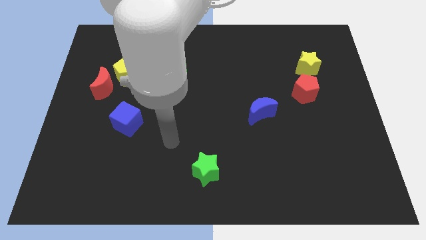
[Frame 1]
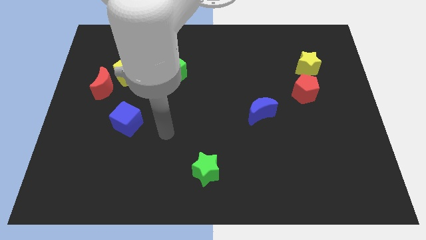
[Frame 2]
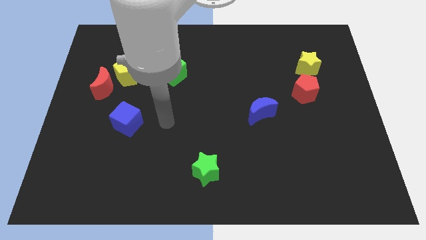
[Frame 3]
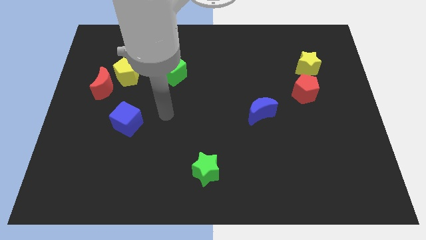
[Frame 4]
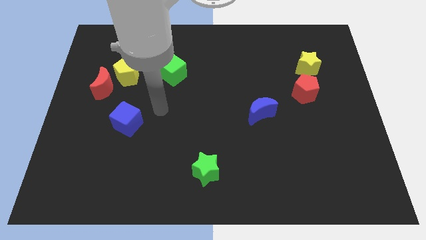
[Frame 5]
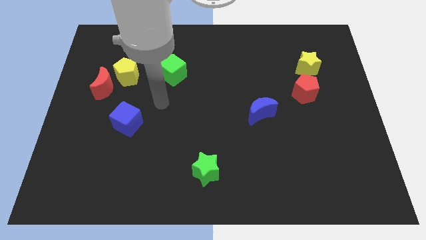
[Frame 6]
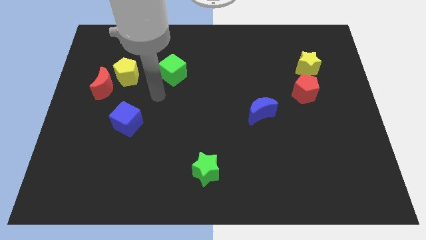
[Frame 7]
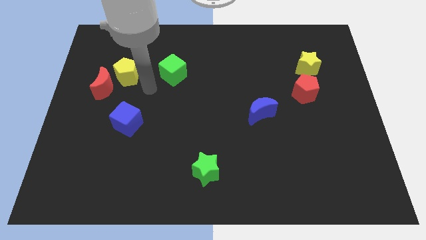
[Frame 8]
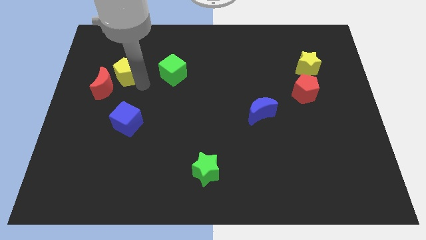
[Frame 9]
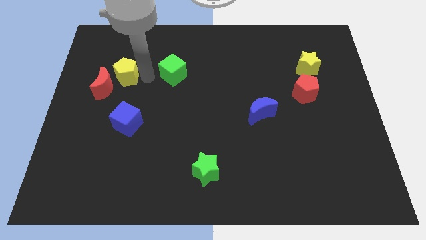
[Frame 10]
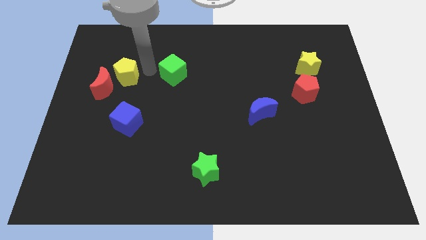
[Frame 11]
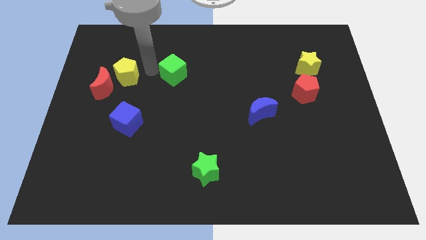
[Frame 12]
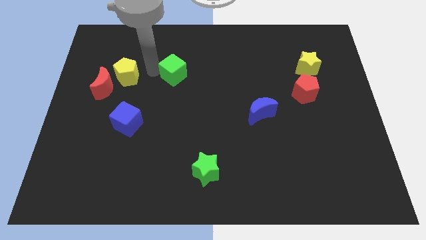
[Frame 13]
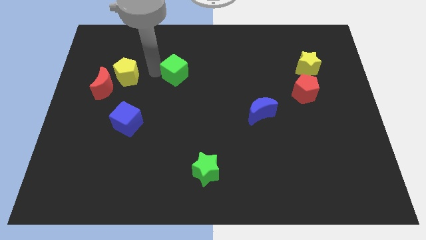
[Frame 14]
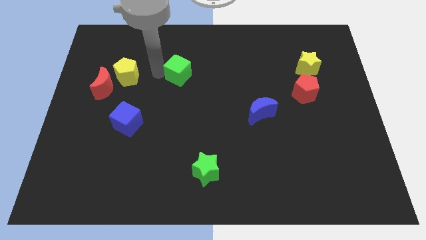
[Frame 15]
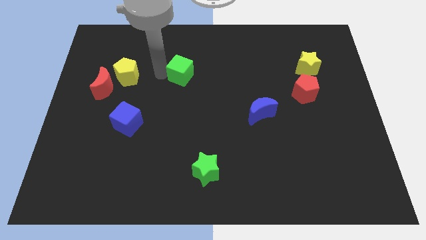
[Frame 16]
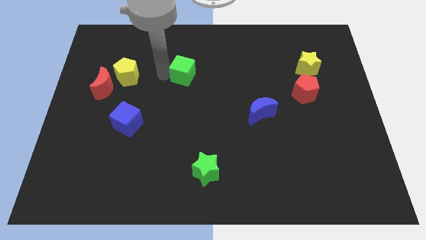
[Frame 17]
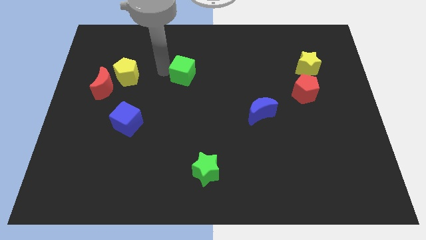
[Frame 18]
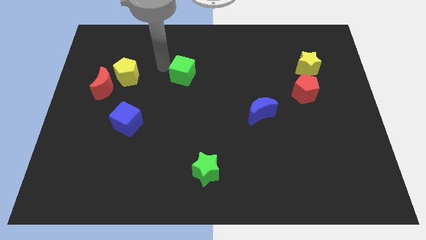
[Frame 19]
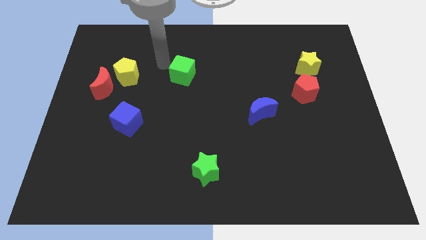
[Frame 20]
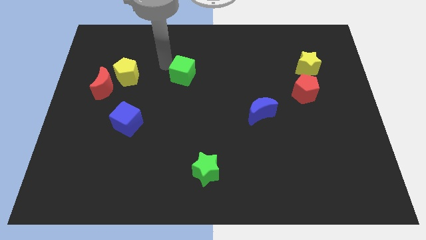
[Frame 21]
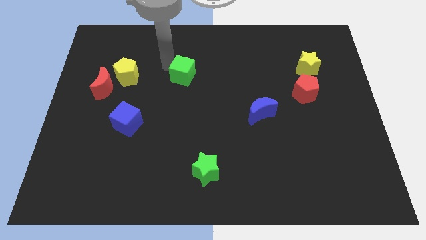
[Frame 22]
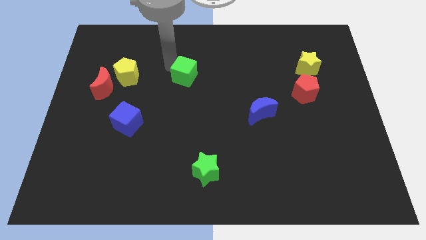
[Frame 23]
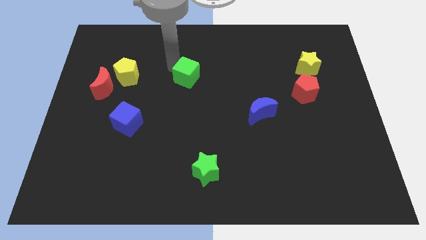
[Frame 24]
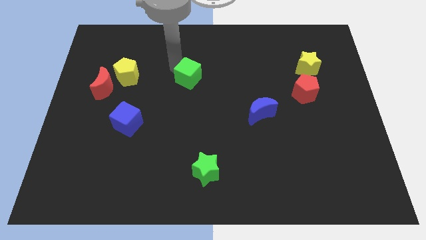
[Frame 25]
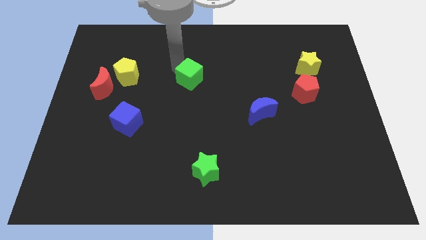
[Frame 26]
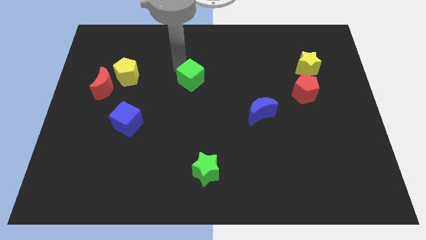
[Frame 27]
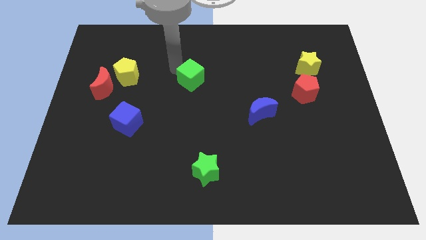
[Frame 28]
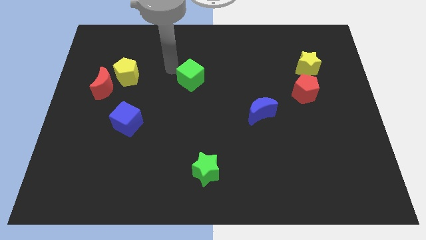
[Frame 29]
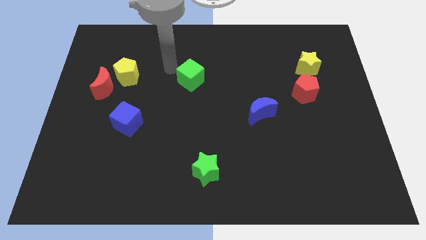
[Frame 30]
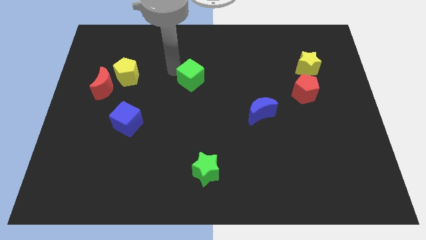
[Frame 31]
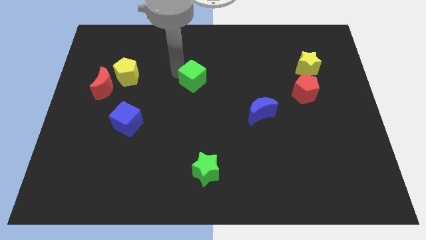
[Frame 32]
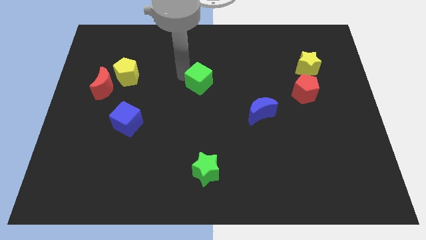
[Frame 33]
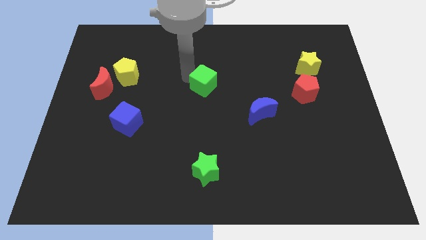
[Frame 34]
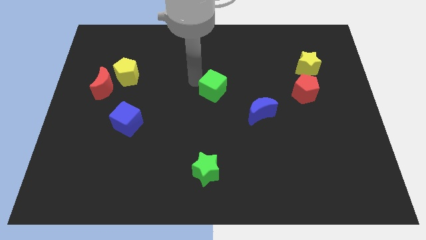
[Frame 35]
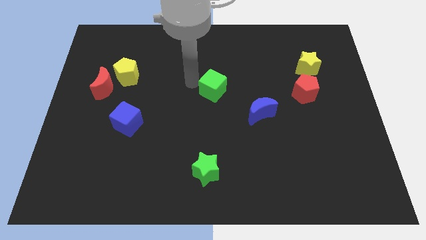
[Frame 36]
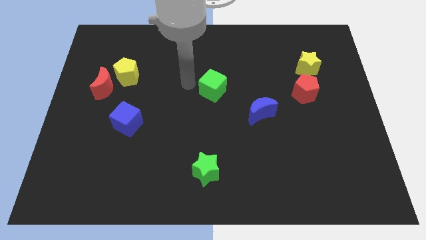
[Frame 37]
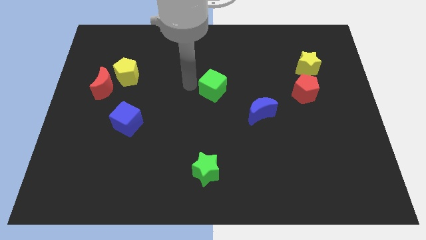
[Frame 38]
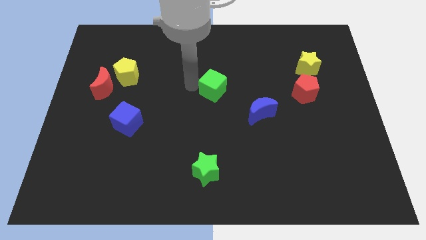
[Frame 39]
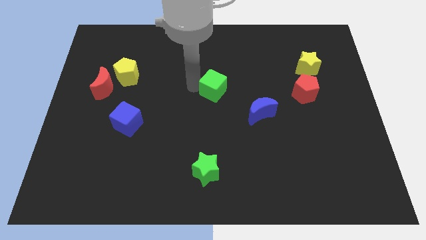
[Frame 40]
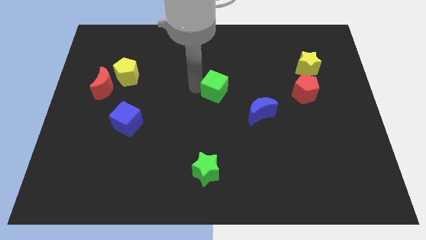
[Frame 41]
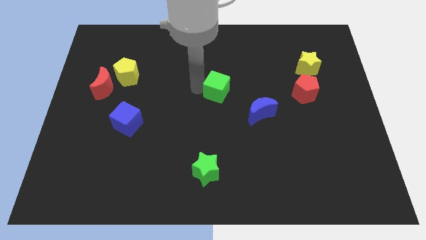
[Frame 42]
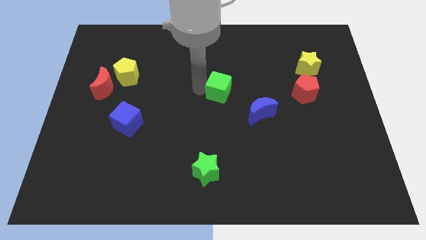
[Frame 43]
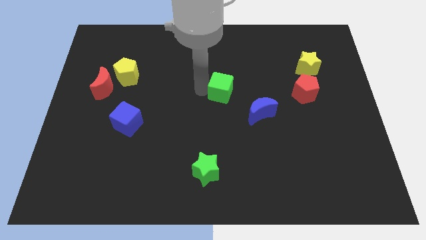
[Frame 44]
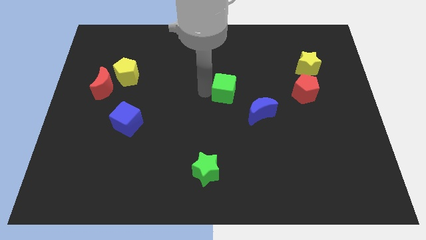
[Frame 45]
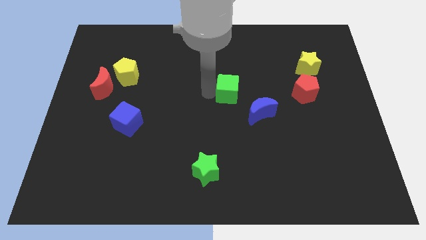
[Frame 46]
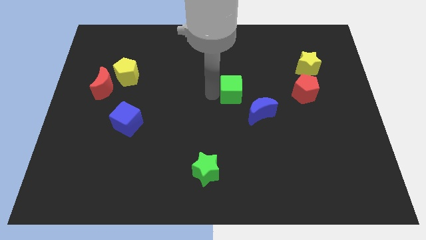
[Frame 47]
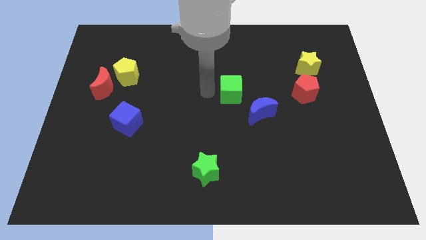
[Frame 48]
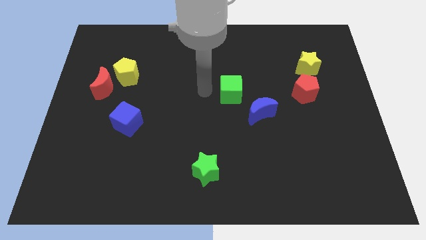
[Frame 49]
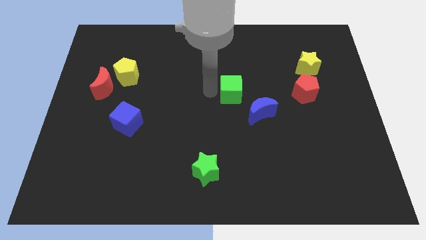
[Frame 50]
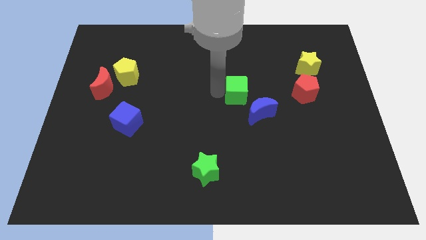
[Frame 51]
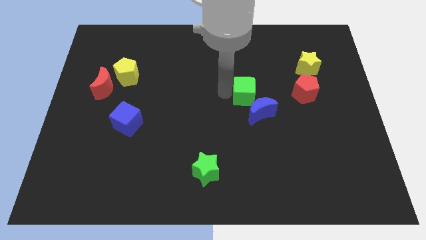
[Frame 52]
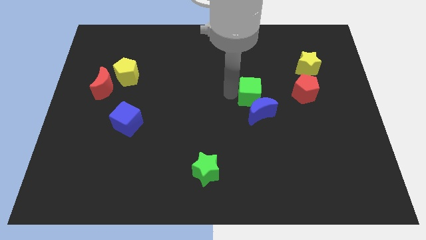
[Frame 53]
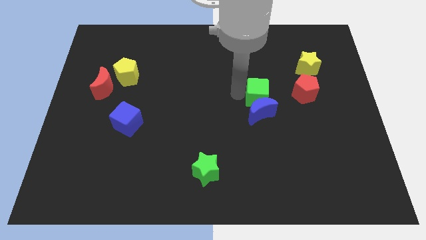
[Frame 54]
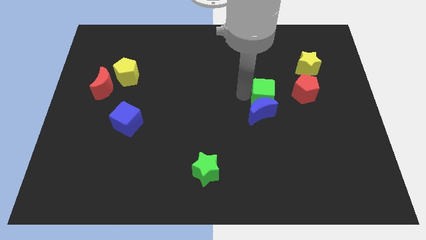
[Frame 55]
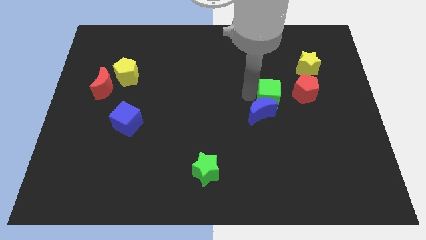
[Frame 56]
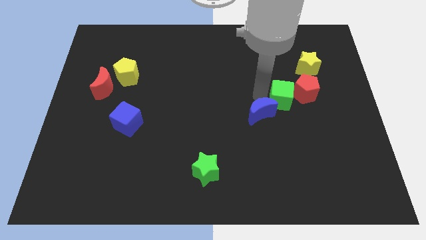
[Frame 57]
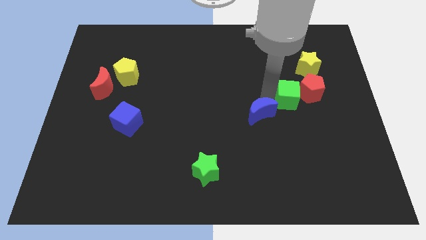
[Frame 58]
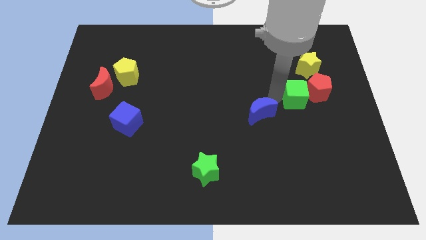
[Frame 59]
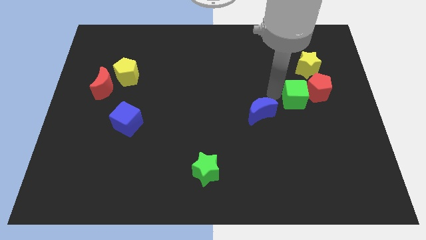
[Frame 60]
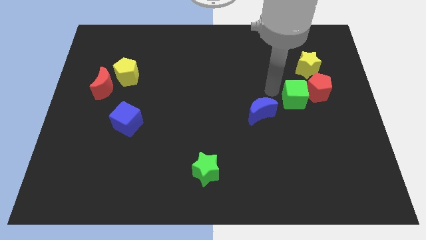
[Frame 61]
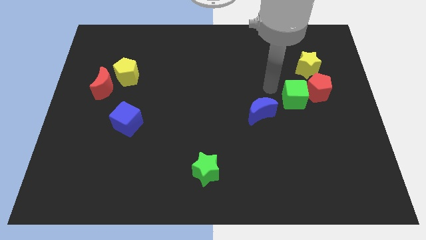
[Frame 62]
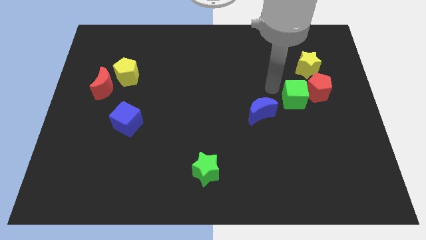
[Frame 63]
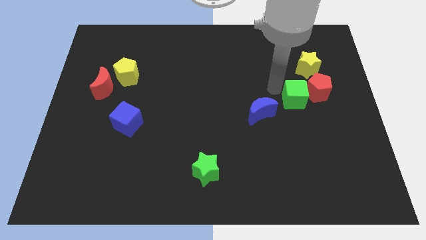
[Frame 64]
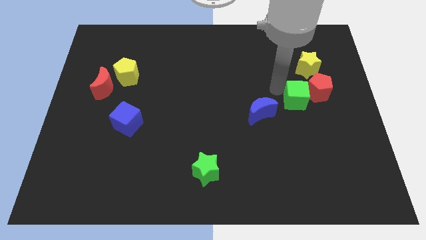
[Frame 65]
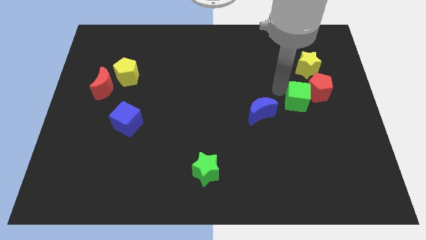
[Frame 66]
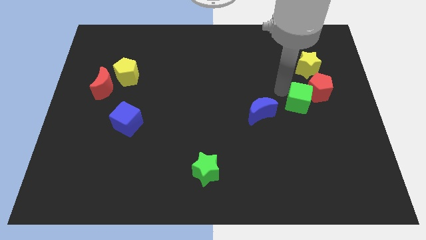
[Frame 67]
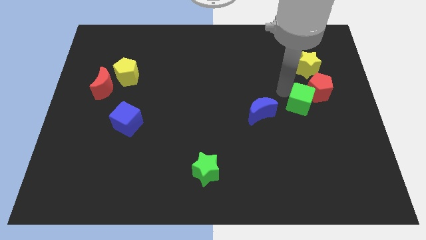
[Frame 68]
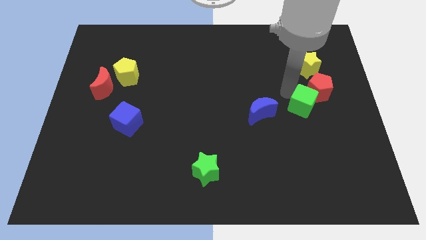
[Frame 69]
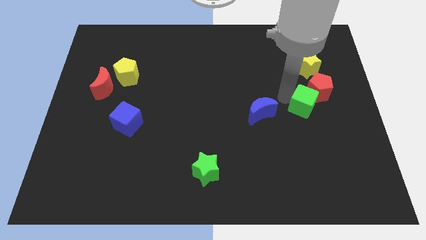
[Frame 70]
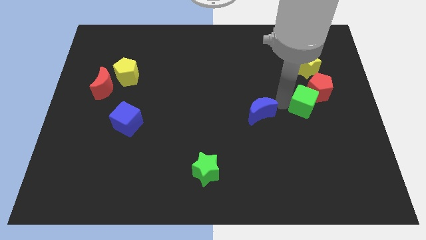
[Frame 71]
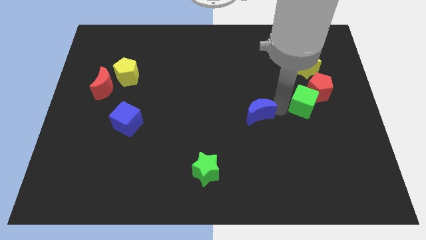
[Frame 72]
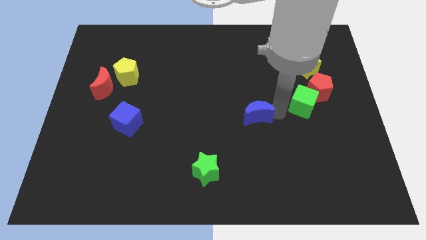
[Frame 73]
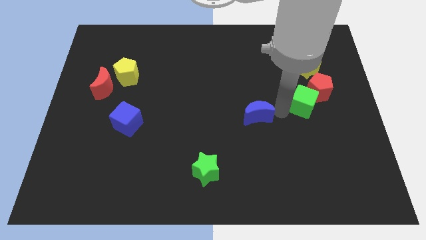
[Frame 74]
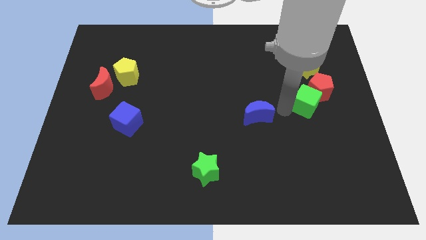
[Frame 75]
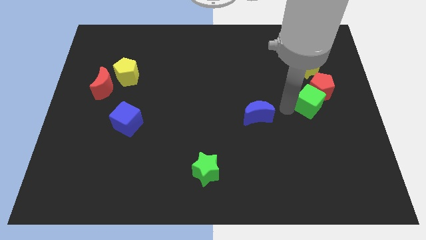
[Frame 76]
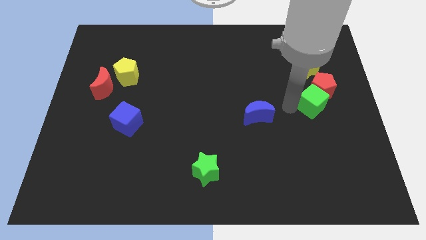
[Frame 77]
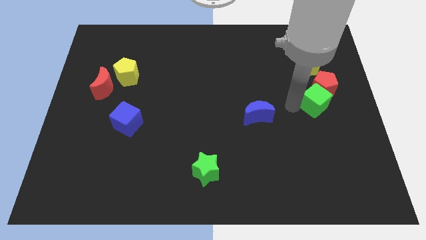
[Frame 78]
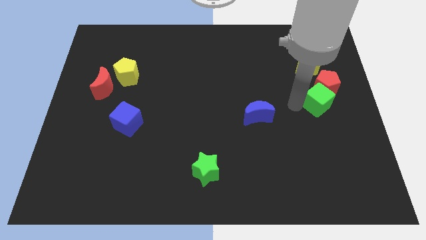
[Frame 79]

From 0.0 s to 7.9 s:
move the green cube to the center right

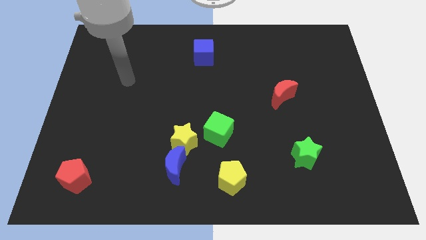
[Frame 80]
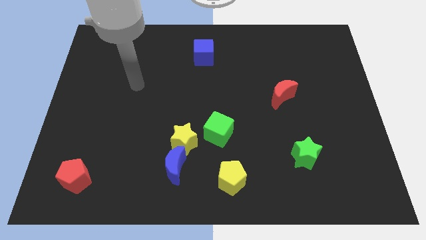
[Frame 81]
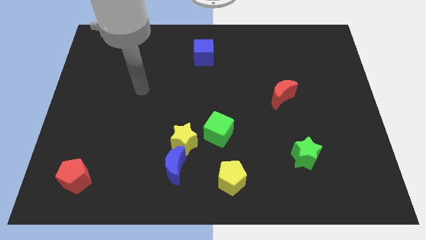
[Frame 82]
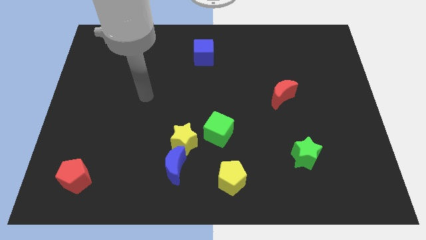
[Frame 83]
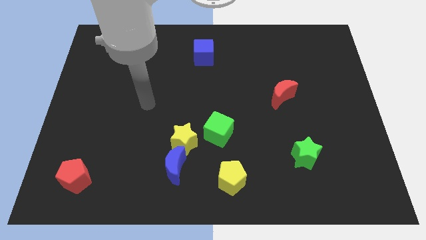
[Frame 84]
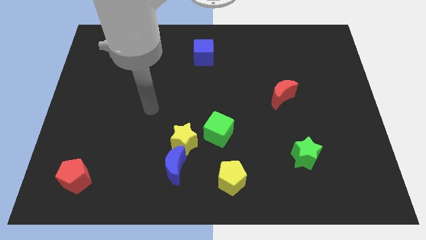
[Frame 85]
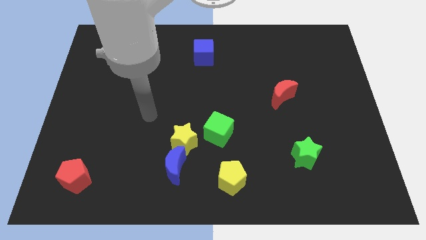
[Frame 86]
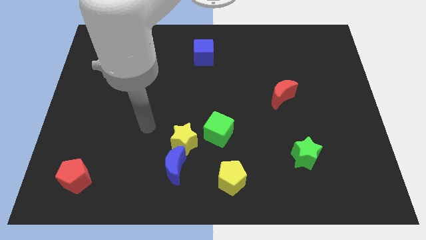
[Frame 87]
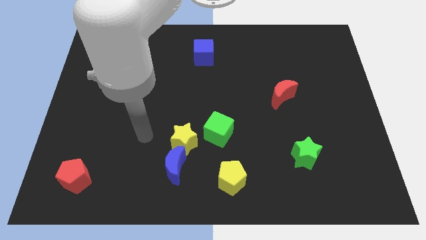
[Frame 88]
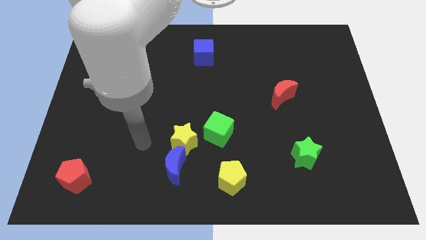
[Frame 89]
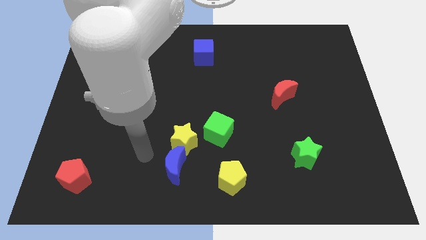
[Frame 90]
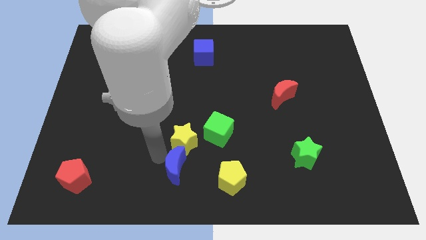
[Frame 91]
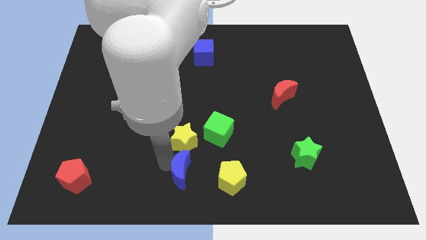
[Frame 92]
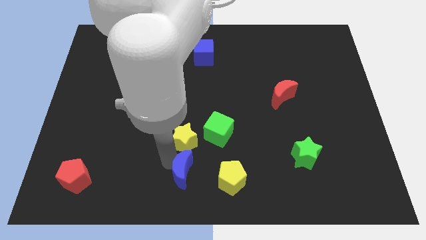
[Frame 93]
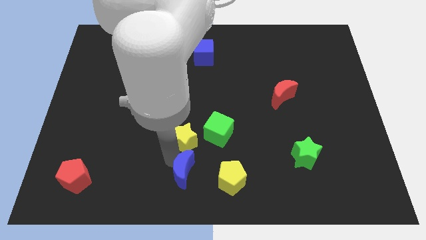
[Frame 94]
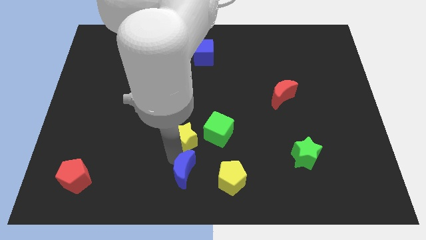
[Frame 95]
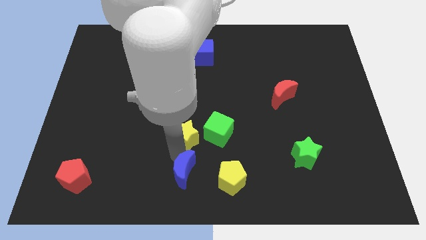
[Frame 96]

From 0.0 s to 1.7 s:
push the yellow star to the center of the board
